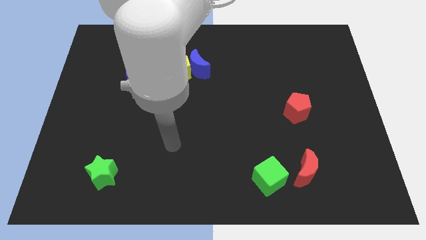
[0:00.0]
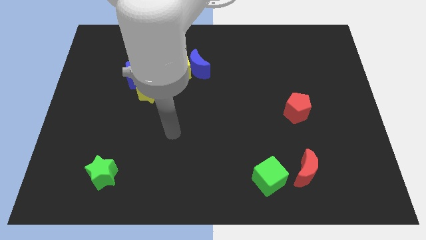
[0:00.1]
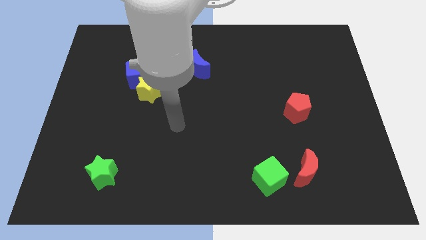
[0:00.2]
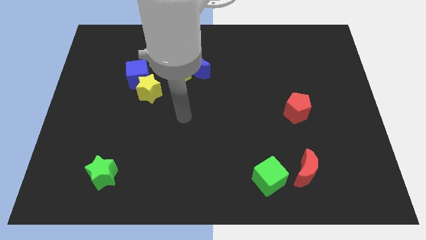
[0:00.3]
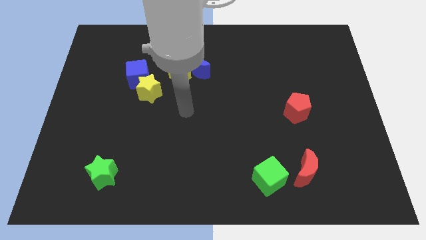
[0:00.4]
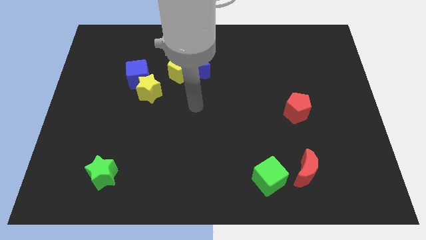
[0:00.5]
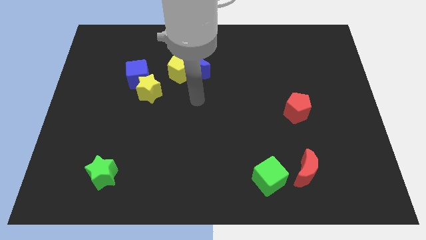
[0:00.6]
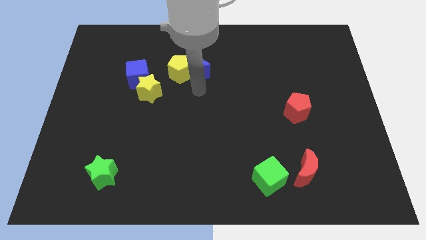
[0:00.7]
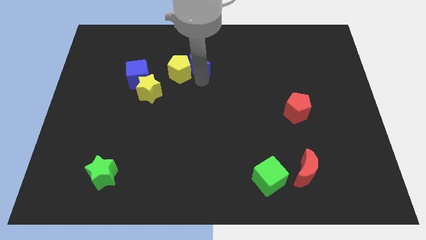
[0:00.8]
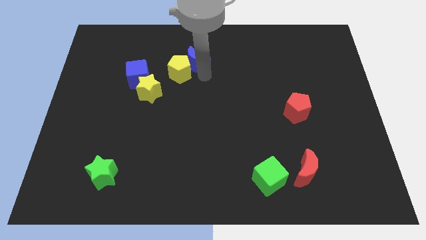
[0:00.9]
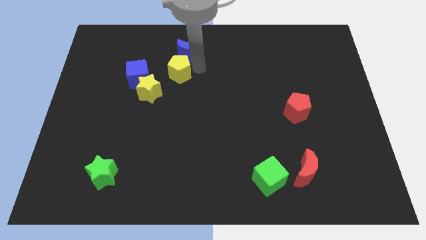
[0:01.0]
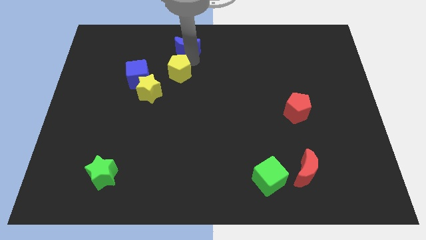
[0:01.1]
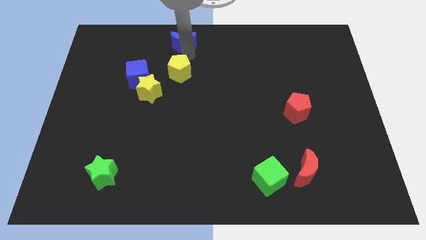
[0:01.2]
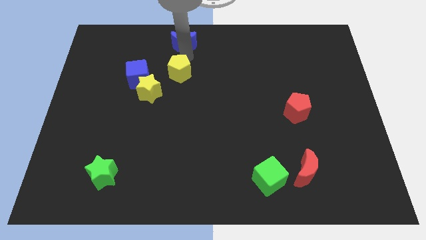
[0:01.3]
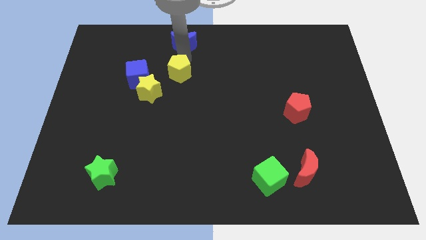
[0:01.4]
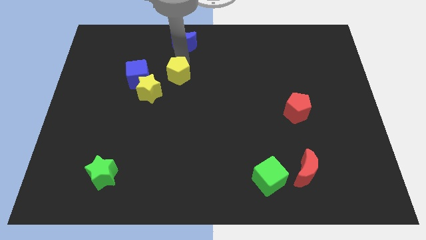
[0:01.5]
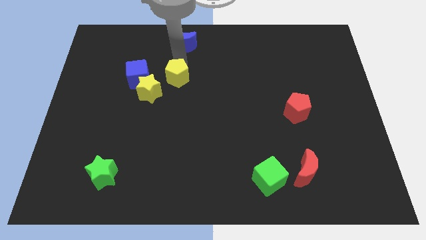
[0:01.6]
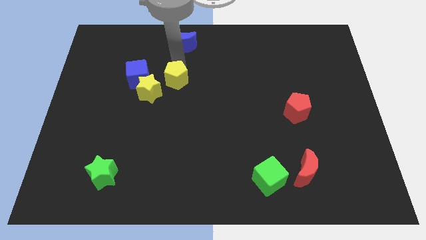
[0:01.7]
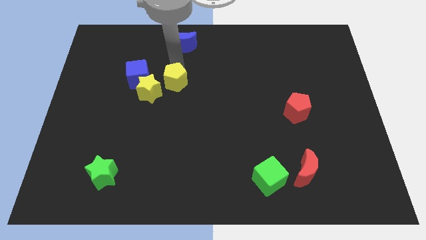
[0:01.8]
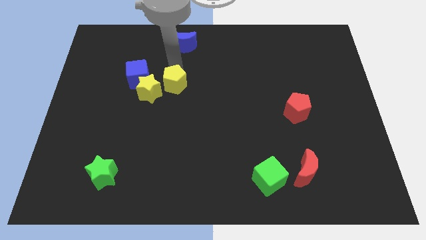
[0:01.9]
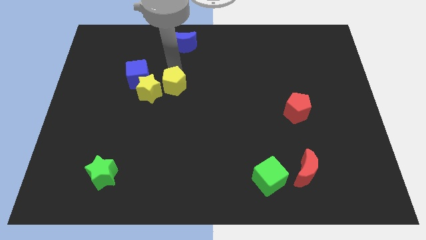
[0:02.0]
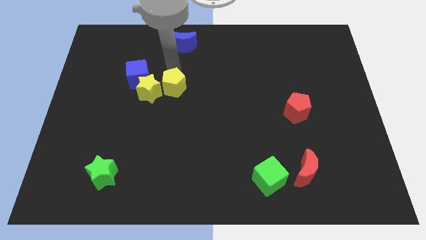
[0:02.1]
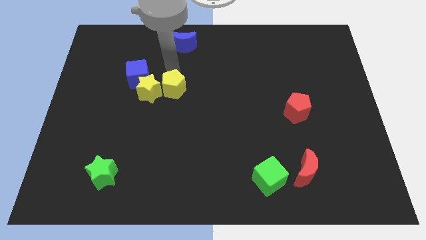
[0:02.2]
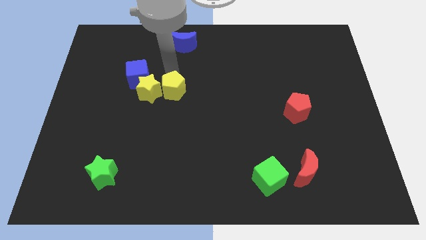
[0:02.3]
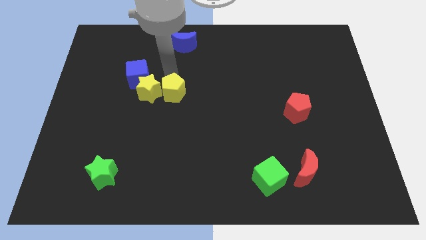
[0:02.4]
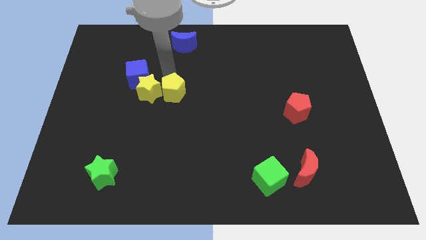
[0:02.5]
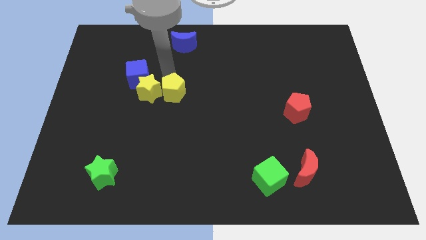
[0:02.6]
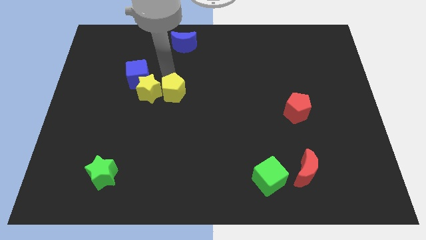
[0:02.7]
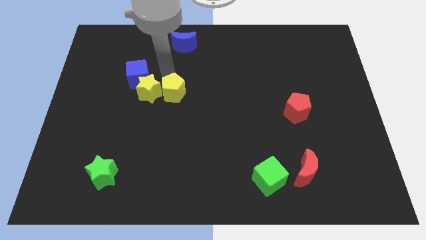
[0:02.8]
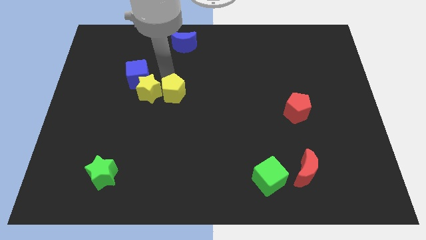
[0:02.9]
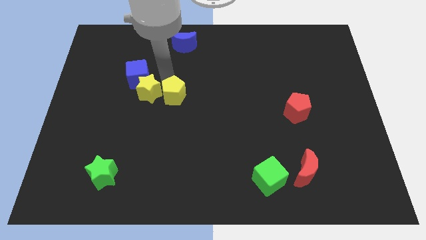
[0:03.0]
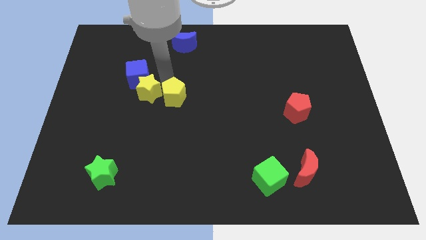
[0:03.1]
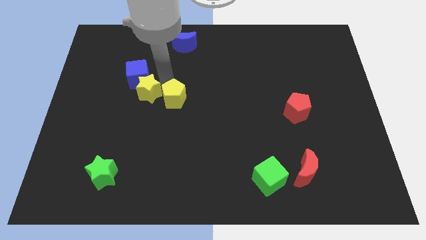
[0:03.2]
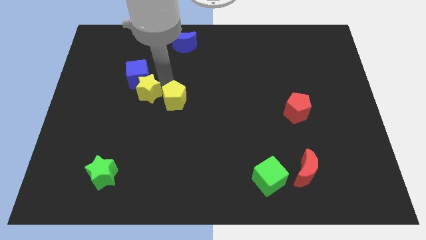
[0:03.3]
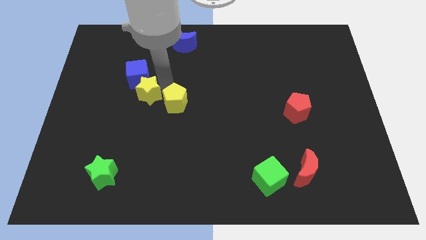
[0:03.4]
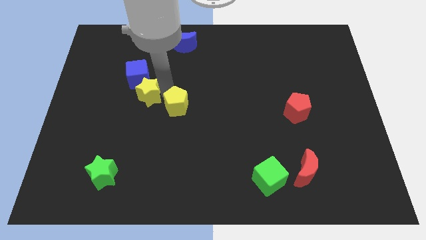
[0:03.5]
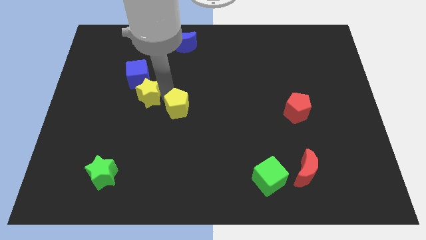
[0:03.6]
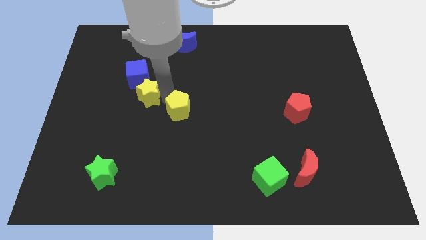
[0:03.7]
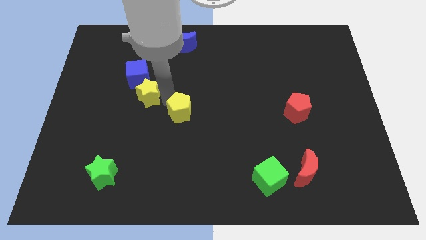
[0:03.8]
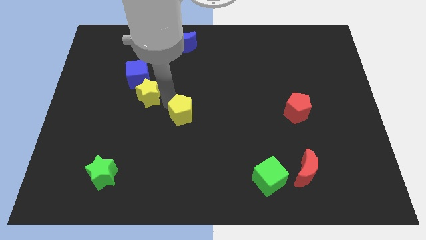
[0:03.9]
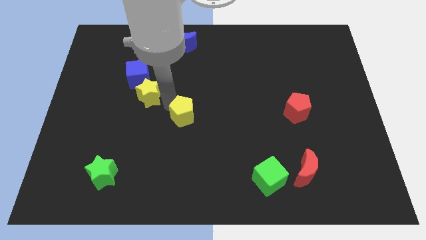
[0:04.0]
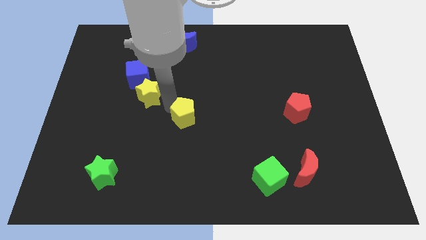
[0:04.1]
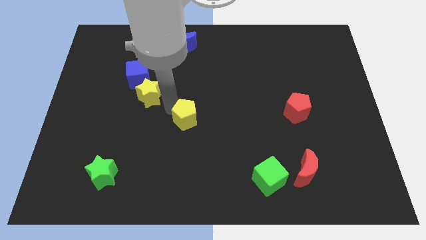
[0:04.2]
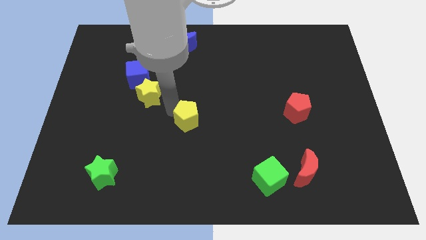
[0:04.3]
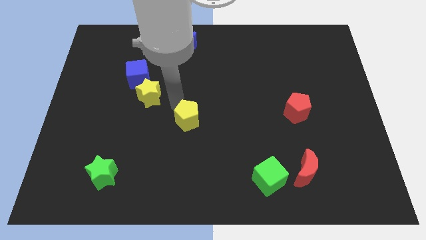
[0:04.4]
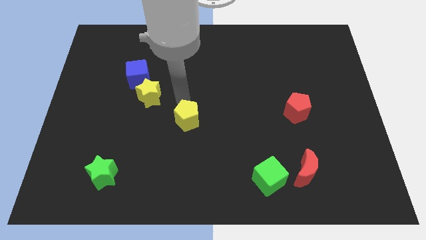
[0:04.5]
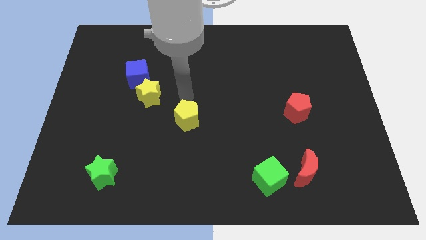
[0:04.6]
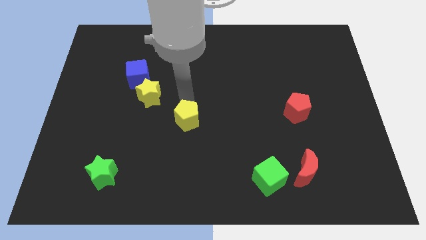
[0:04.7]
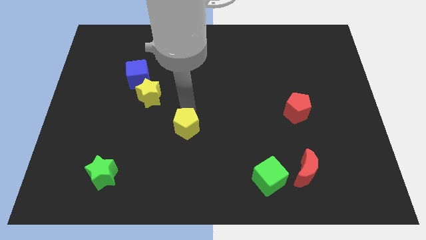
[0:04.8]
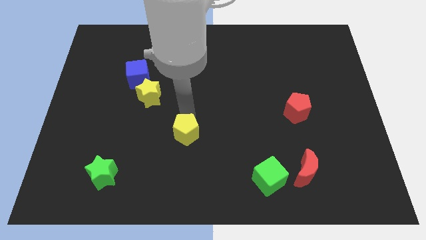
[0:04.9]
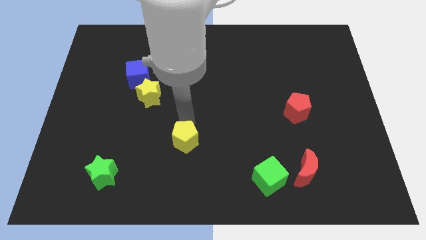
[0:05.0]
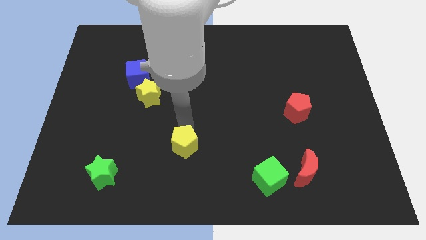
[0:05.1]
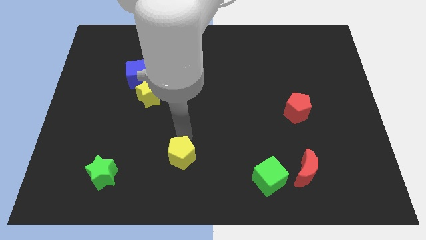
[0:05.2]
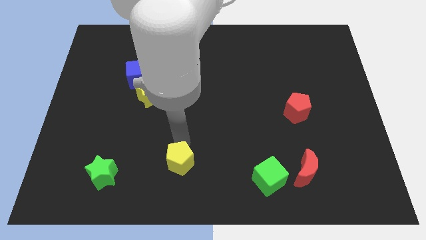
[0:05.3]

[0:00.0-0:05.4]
slide the yellow pentagon to the bottom

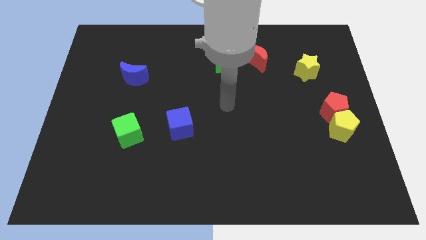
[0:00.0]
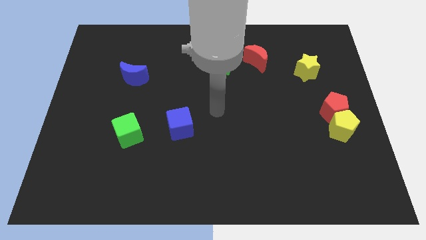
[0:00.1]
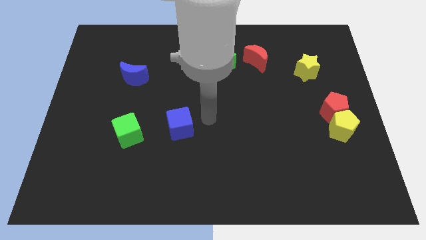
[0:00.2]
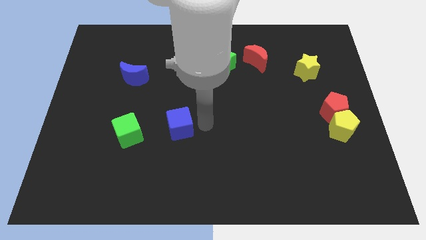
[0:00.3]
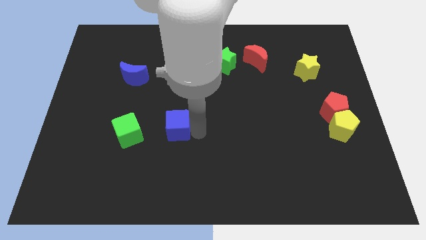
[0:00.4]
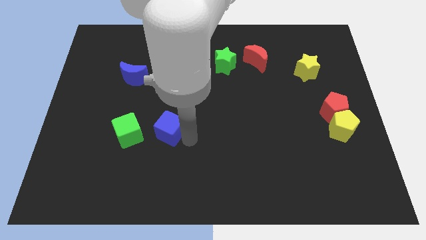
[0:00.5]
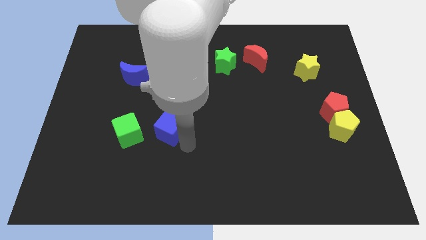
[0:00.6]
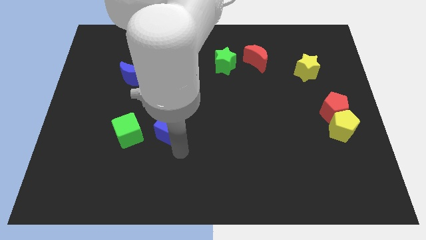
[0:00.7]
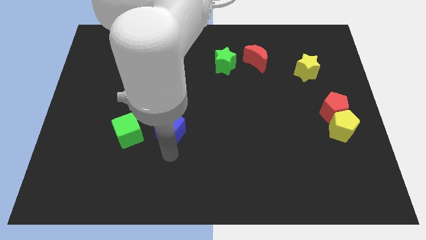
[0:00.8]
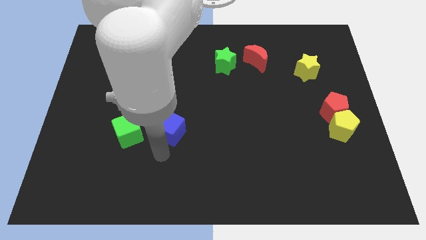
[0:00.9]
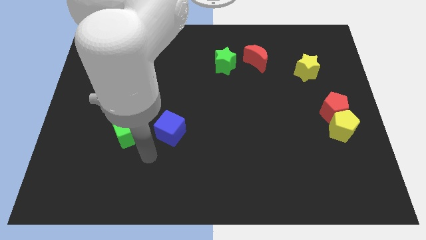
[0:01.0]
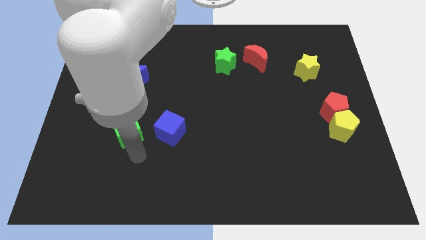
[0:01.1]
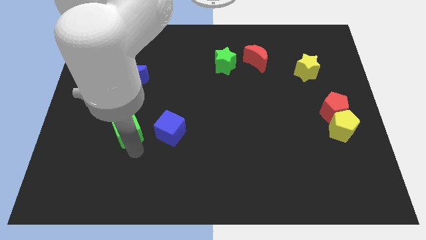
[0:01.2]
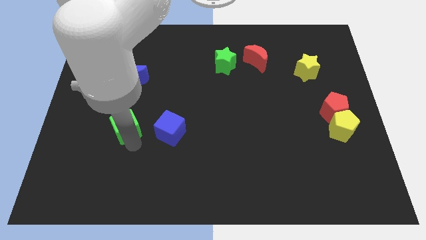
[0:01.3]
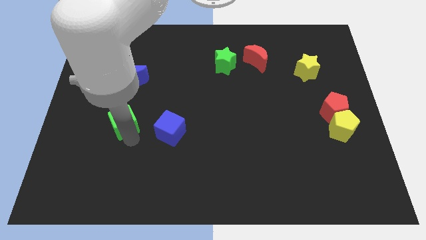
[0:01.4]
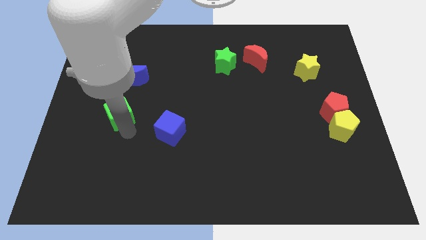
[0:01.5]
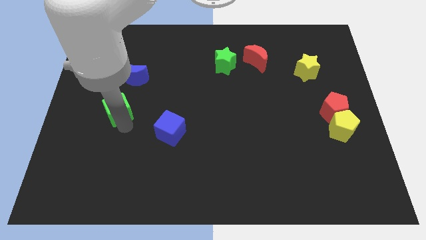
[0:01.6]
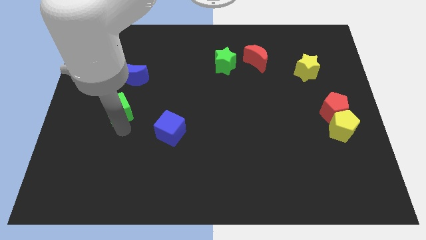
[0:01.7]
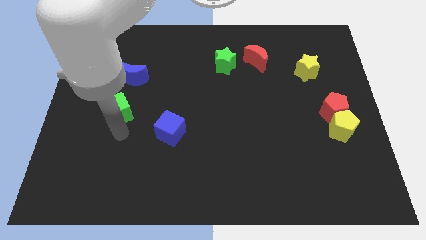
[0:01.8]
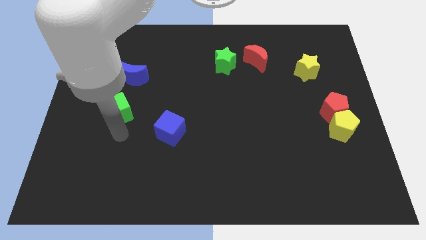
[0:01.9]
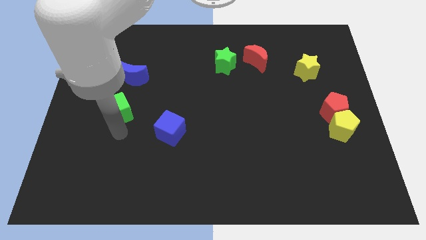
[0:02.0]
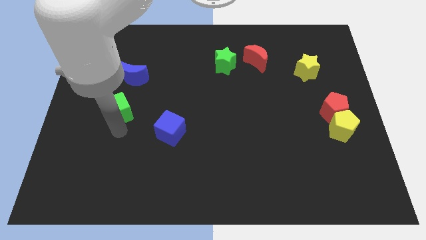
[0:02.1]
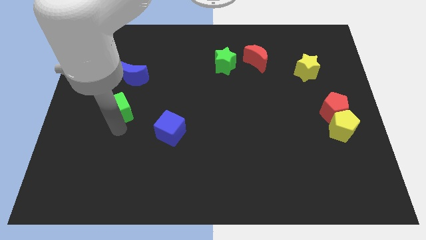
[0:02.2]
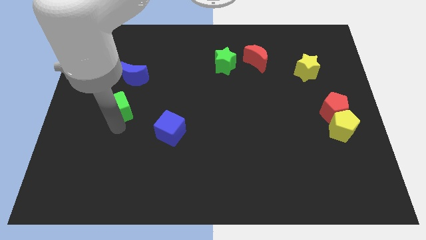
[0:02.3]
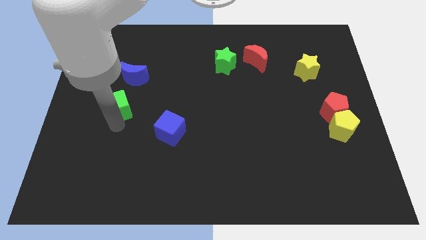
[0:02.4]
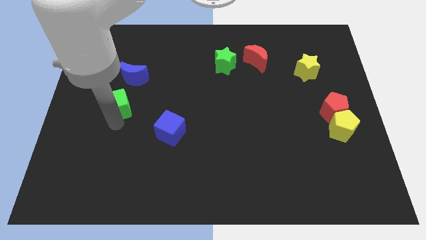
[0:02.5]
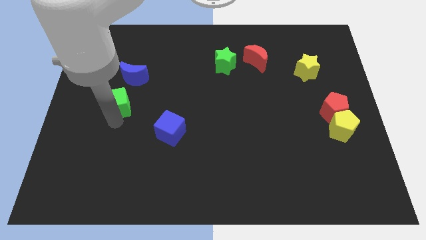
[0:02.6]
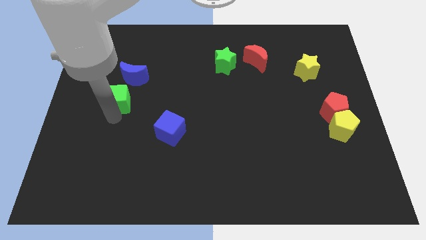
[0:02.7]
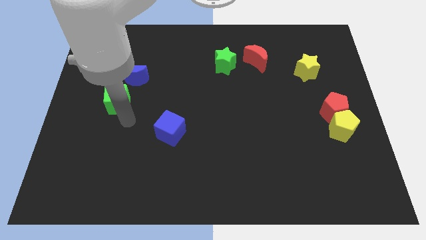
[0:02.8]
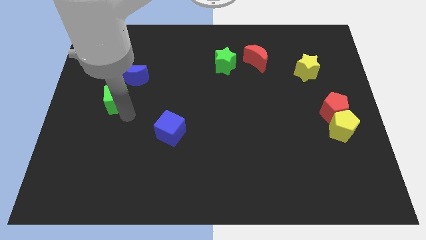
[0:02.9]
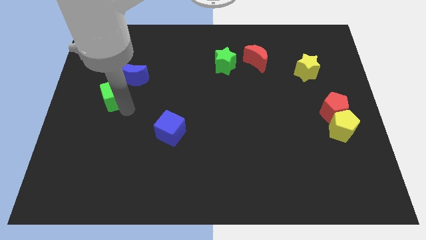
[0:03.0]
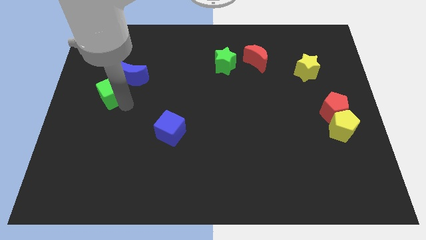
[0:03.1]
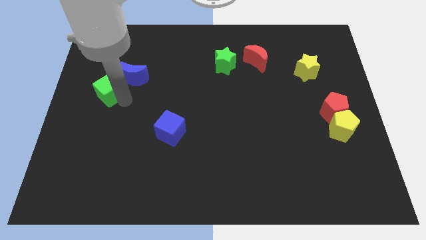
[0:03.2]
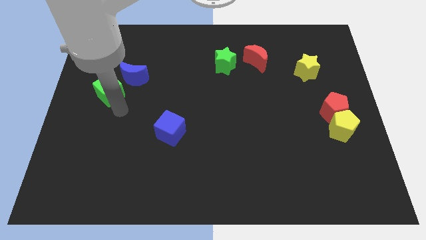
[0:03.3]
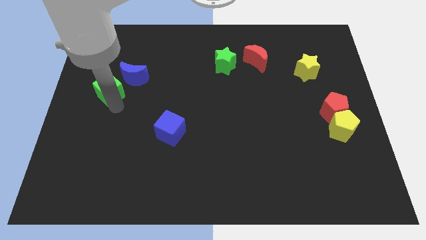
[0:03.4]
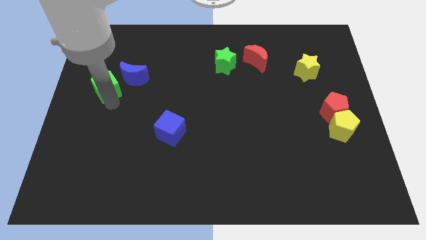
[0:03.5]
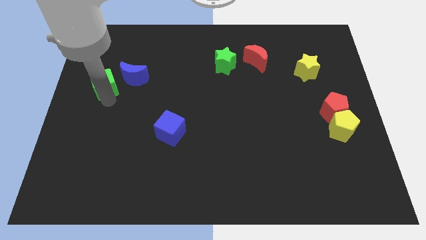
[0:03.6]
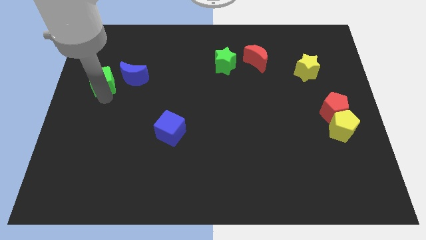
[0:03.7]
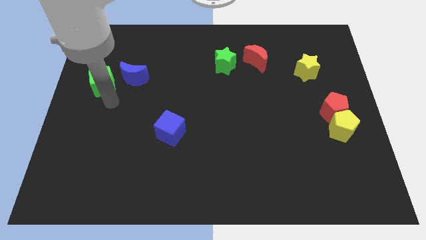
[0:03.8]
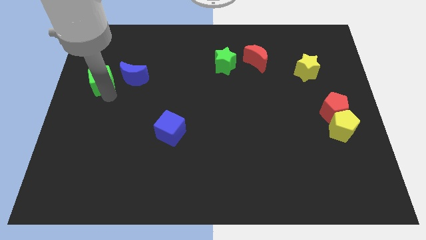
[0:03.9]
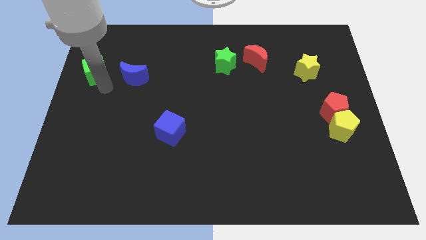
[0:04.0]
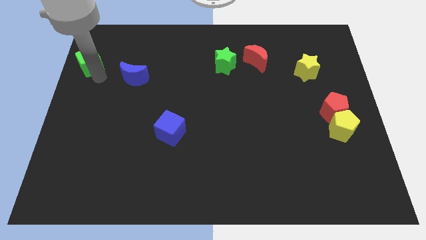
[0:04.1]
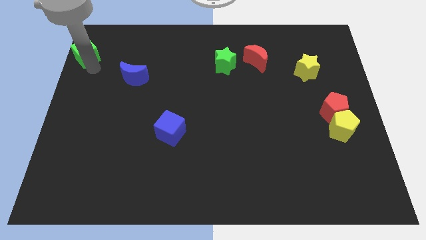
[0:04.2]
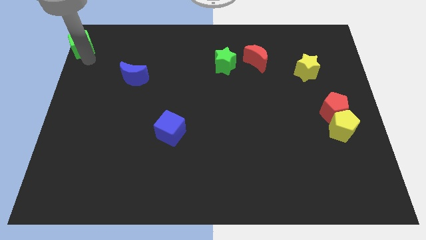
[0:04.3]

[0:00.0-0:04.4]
move the green cube to the top left
